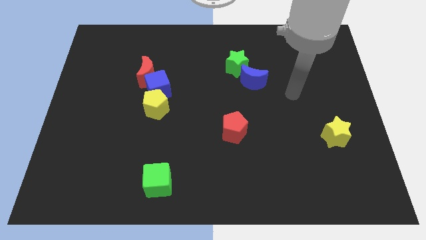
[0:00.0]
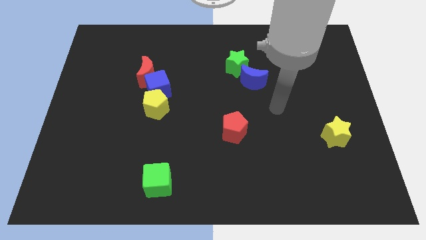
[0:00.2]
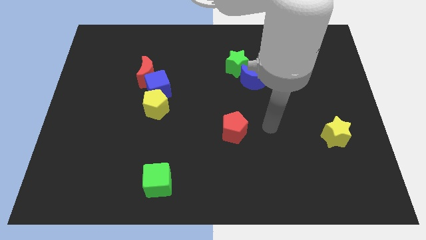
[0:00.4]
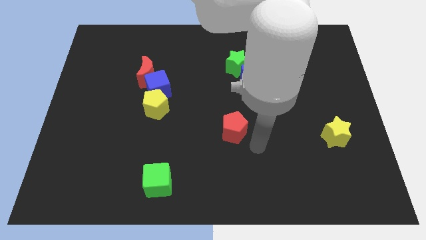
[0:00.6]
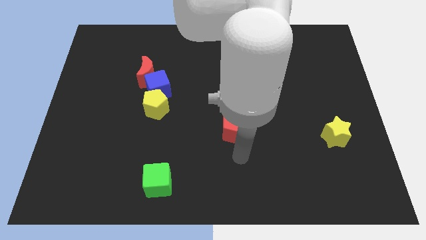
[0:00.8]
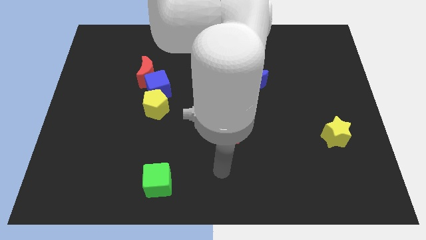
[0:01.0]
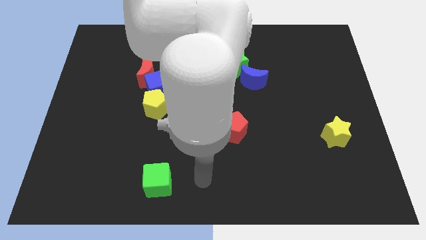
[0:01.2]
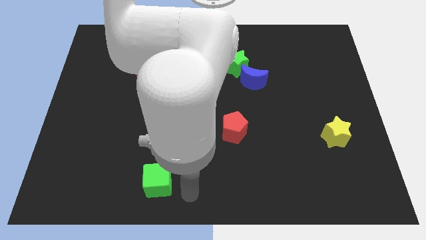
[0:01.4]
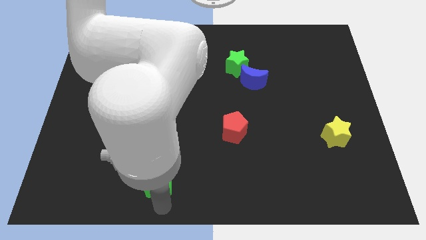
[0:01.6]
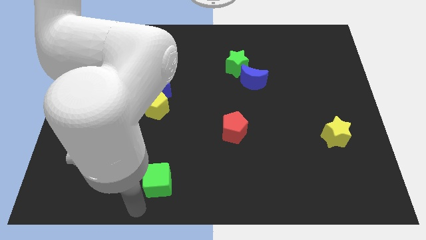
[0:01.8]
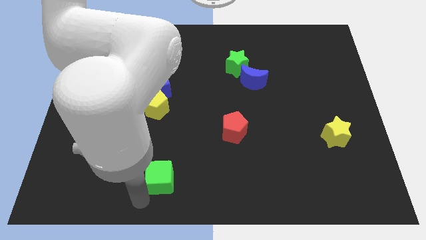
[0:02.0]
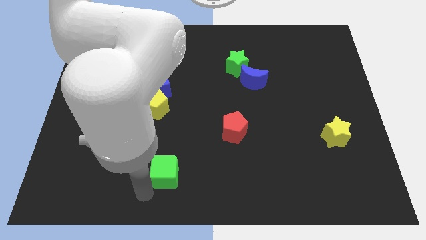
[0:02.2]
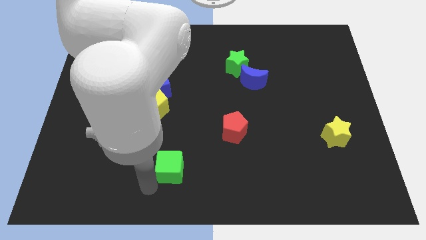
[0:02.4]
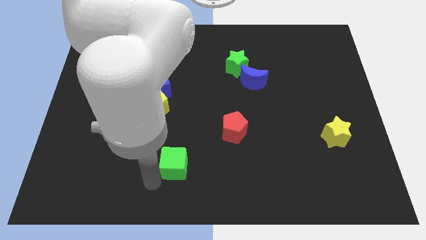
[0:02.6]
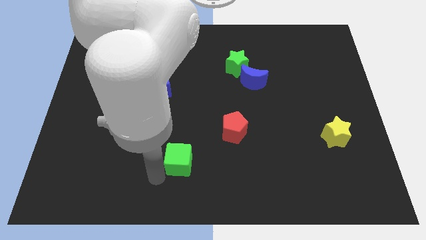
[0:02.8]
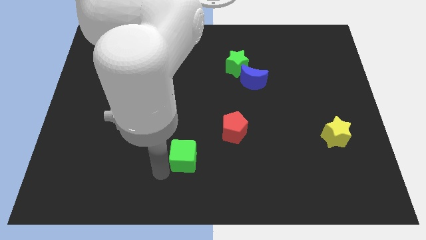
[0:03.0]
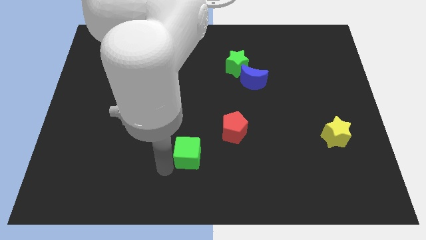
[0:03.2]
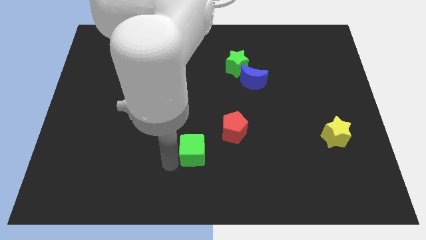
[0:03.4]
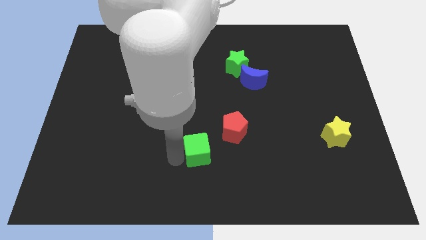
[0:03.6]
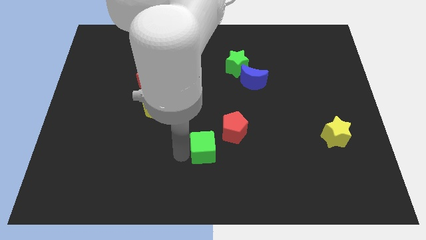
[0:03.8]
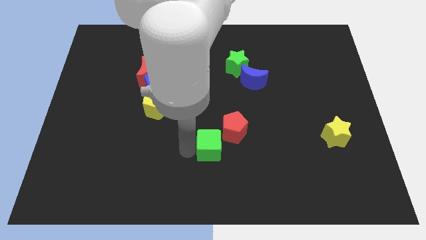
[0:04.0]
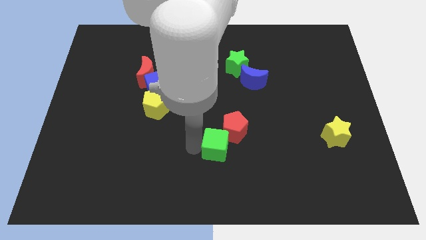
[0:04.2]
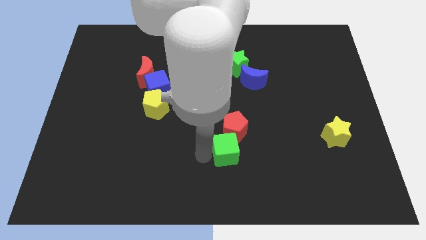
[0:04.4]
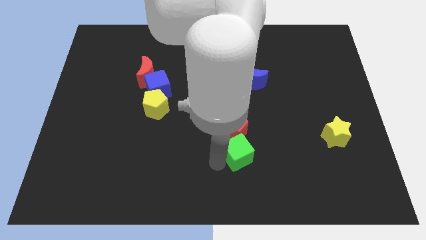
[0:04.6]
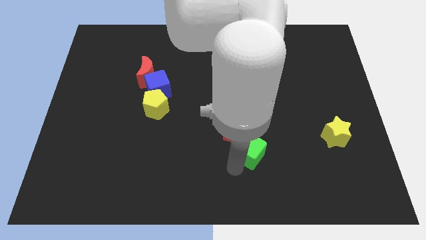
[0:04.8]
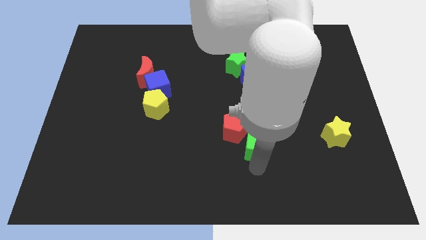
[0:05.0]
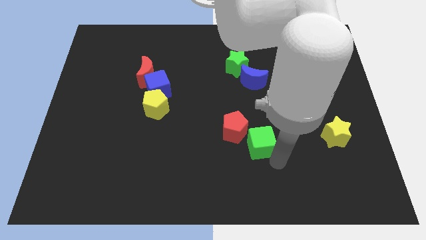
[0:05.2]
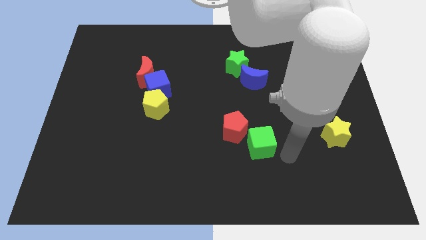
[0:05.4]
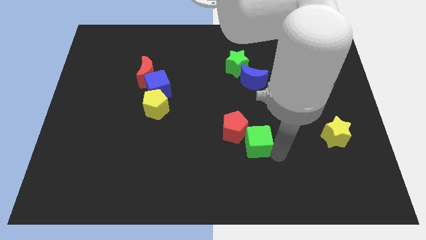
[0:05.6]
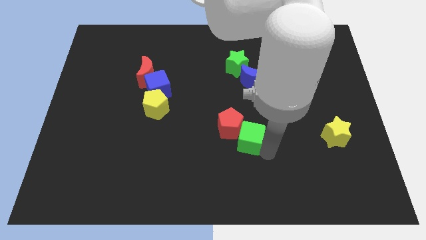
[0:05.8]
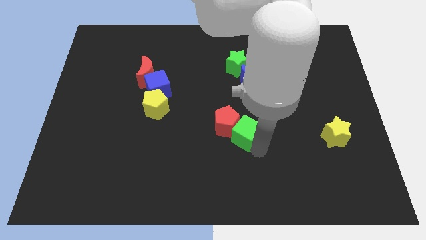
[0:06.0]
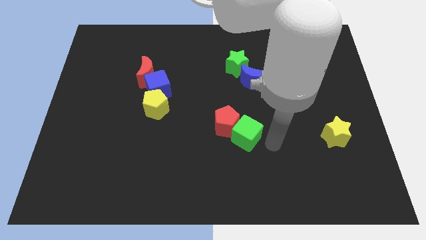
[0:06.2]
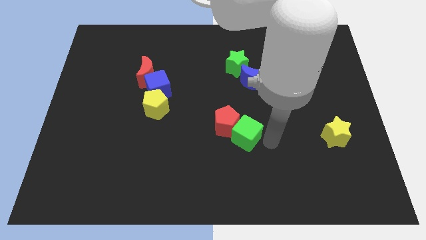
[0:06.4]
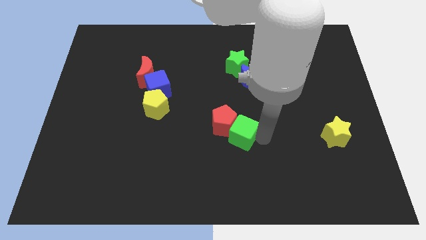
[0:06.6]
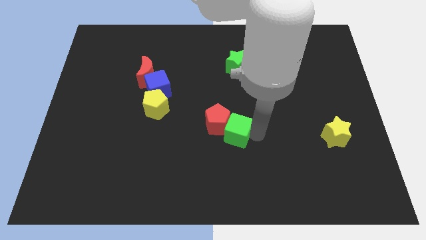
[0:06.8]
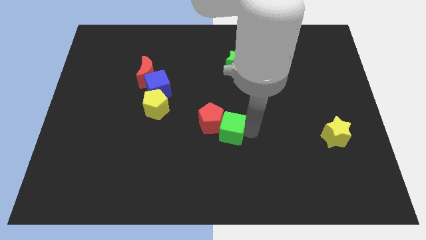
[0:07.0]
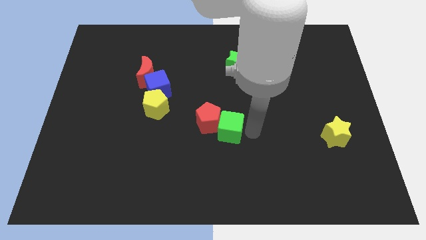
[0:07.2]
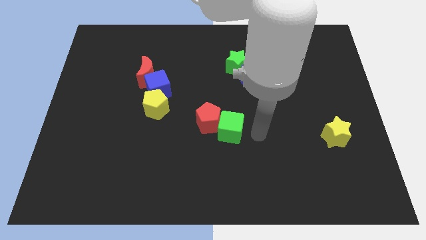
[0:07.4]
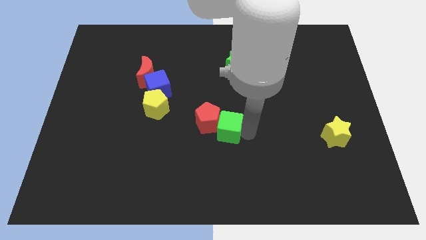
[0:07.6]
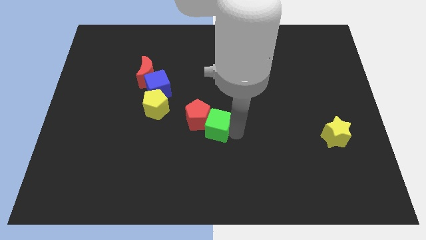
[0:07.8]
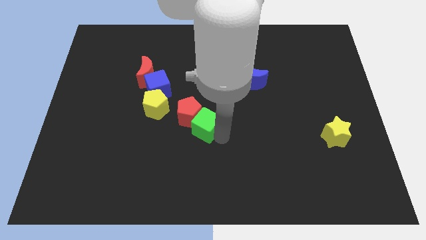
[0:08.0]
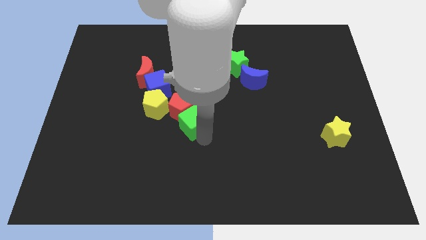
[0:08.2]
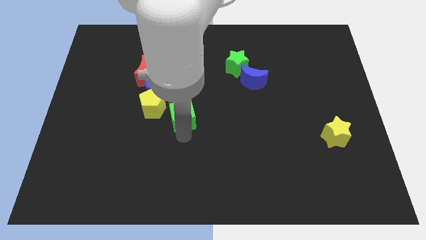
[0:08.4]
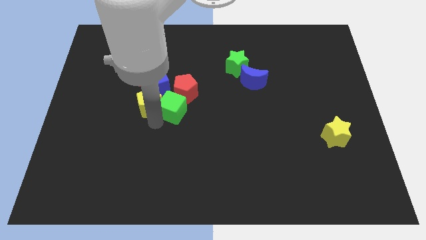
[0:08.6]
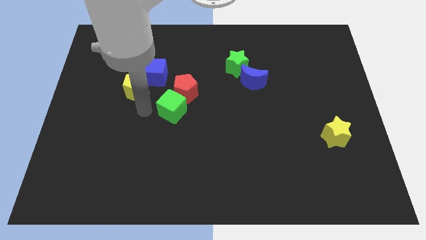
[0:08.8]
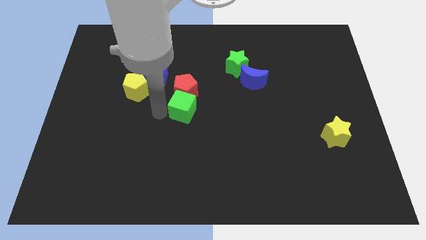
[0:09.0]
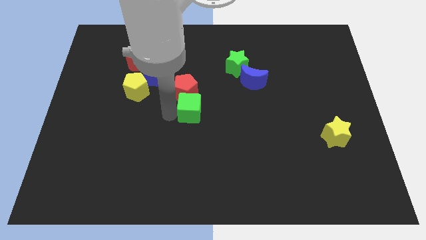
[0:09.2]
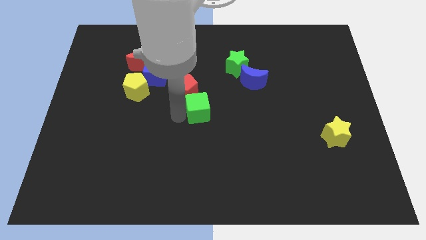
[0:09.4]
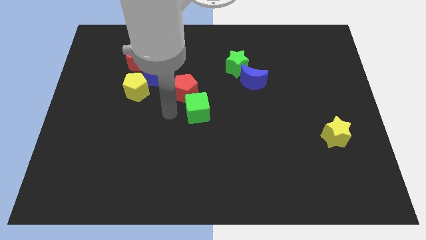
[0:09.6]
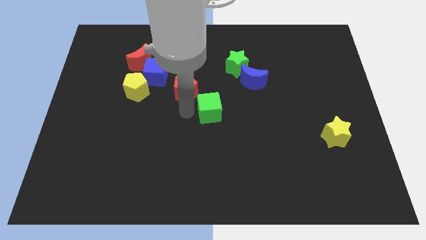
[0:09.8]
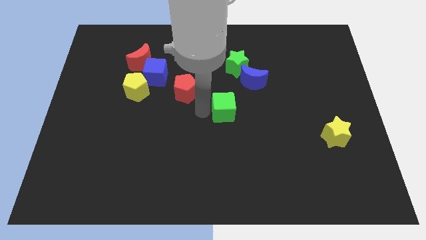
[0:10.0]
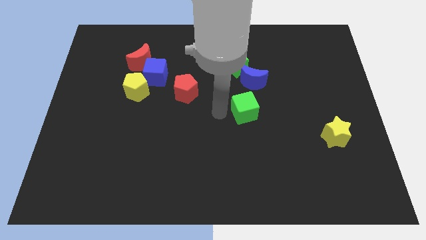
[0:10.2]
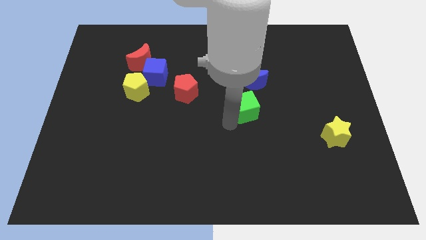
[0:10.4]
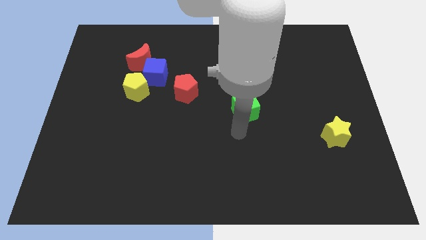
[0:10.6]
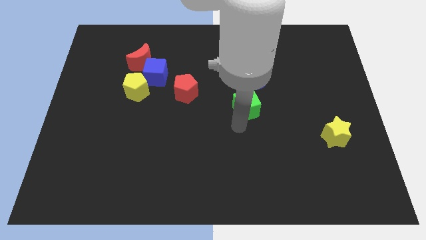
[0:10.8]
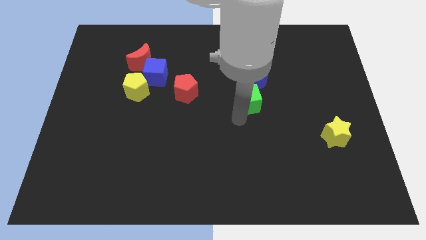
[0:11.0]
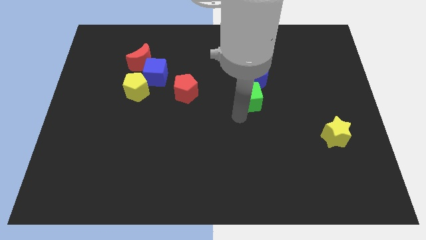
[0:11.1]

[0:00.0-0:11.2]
move the green cube to the blue moon

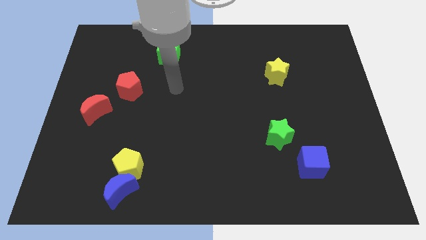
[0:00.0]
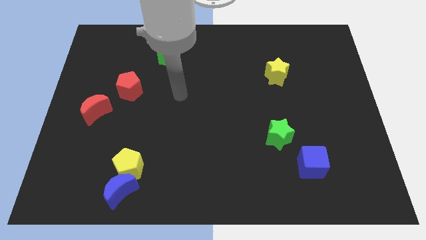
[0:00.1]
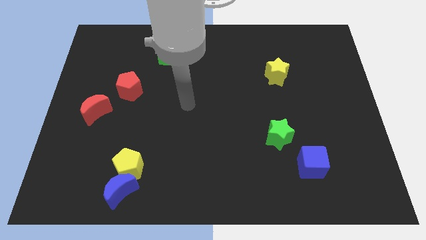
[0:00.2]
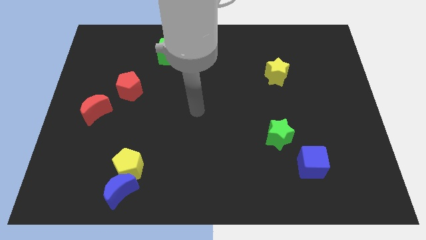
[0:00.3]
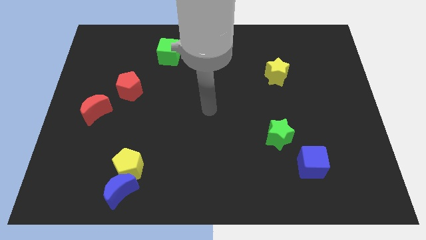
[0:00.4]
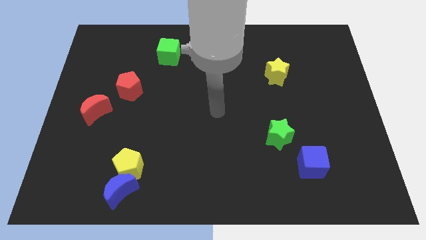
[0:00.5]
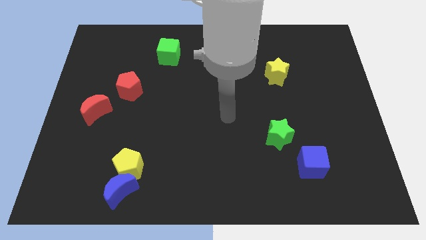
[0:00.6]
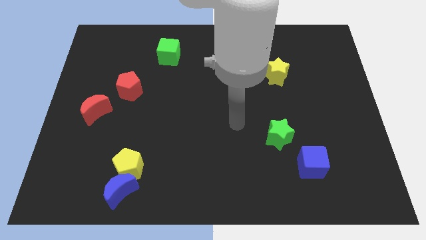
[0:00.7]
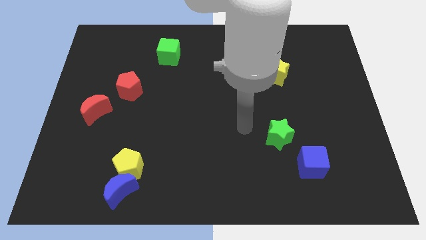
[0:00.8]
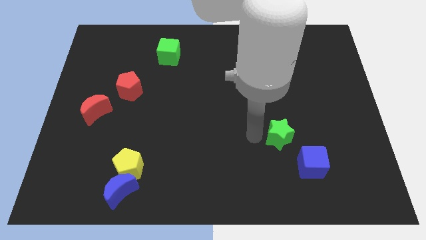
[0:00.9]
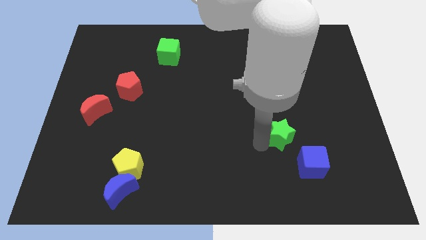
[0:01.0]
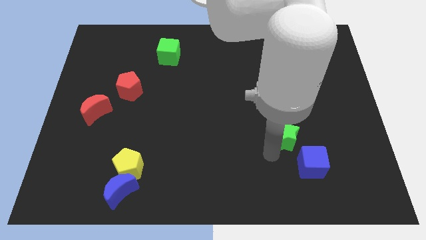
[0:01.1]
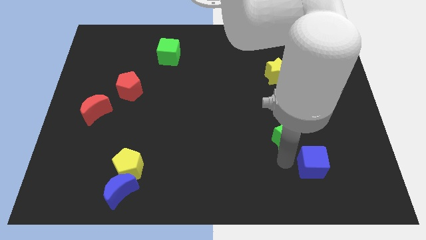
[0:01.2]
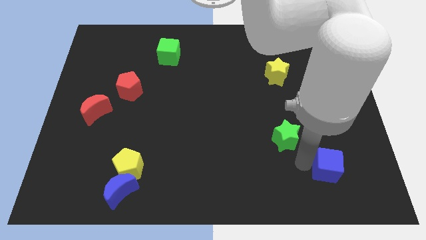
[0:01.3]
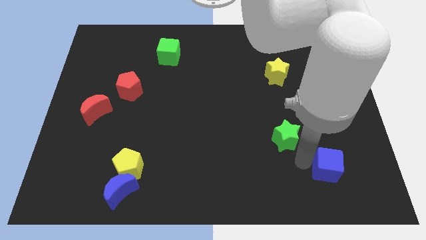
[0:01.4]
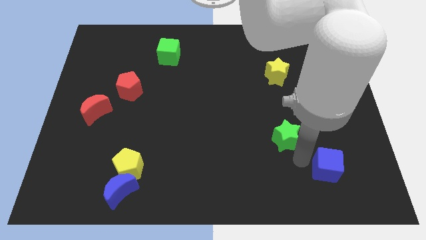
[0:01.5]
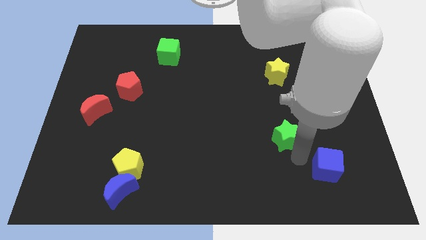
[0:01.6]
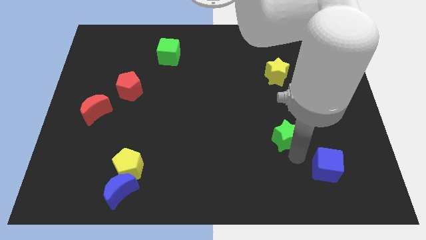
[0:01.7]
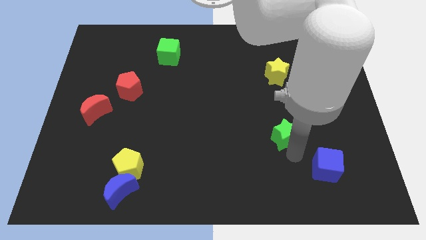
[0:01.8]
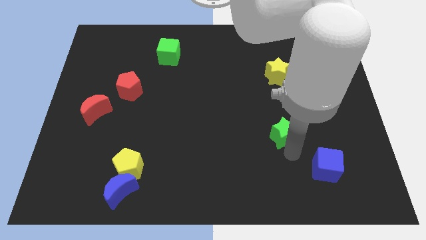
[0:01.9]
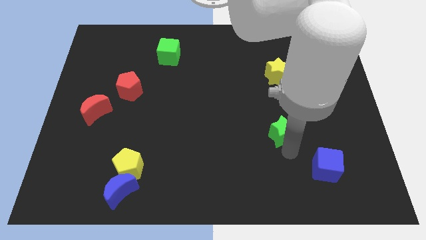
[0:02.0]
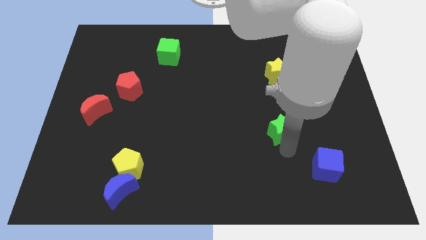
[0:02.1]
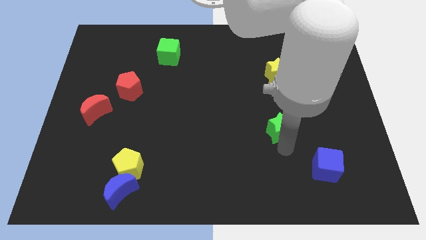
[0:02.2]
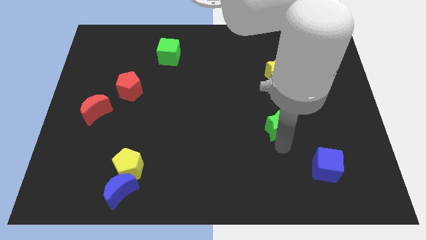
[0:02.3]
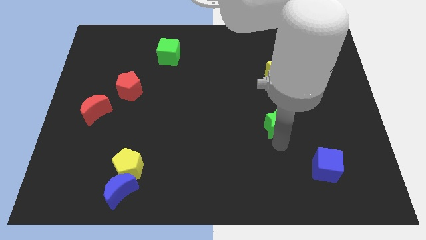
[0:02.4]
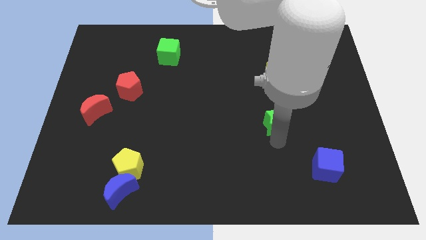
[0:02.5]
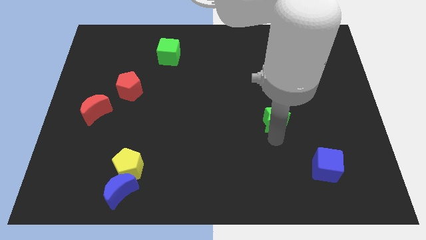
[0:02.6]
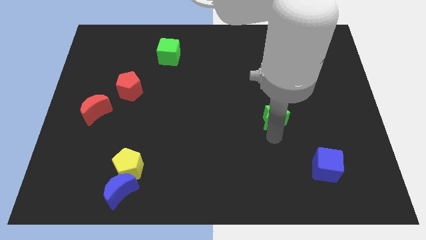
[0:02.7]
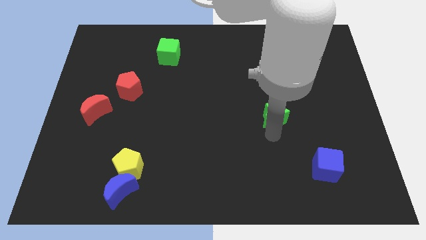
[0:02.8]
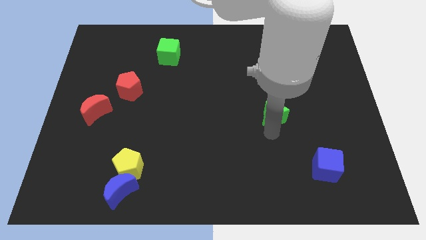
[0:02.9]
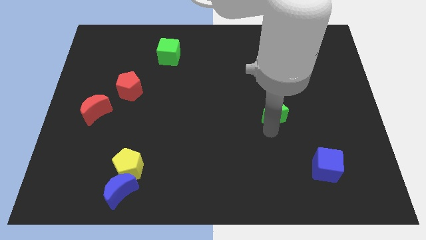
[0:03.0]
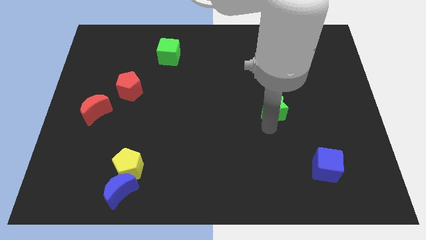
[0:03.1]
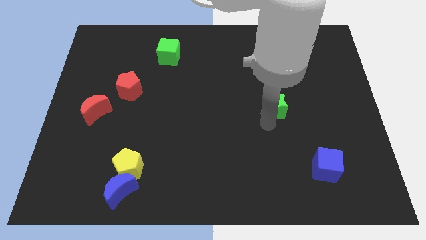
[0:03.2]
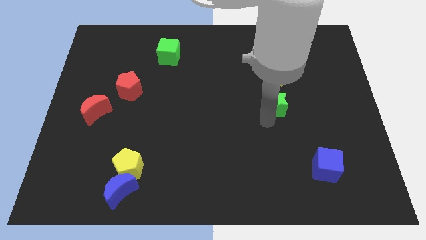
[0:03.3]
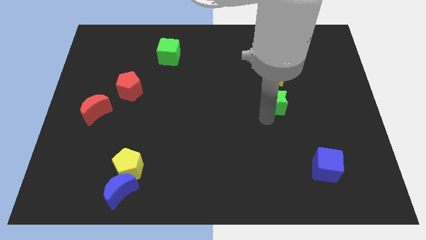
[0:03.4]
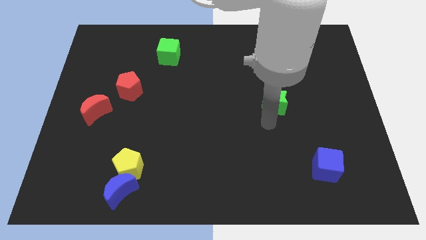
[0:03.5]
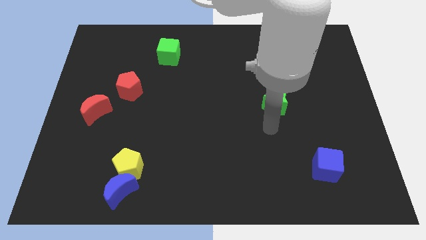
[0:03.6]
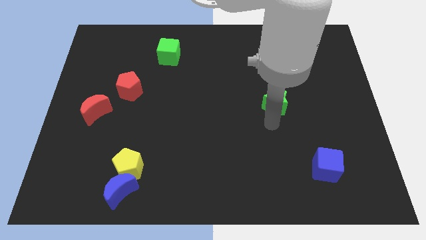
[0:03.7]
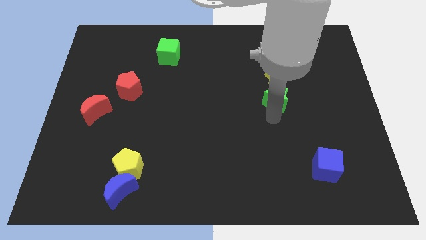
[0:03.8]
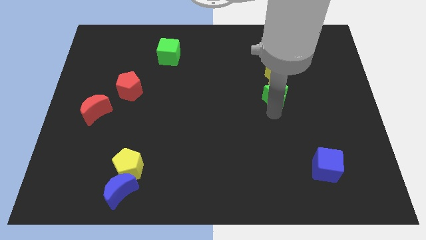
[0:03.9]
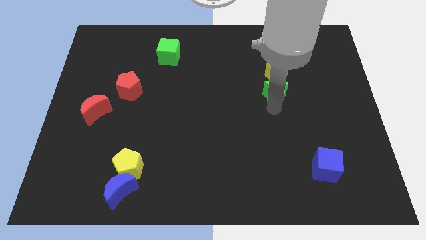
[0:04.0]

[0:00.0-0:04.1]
push the green star close to the yellow star
